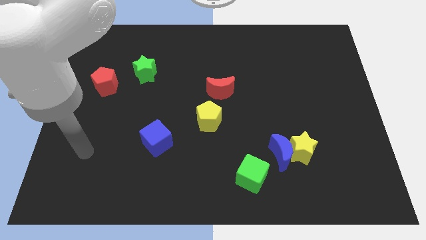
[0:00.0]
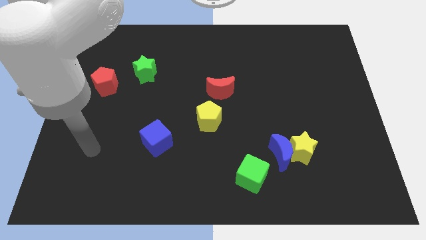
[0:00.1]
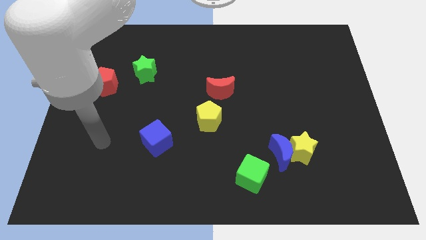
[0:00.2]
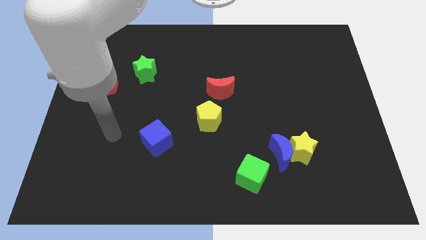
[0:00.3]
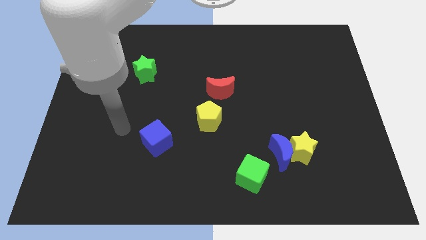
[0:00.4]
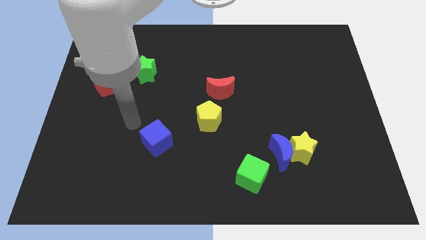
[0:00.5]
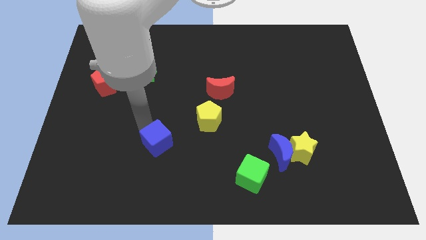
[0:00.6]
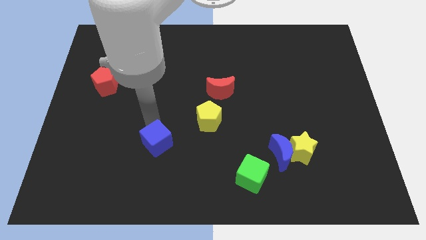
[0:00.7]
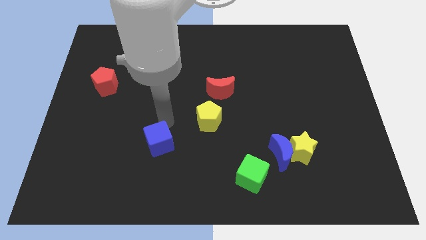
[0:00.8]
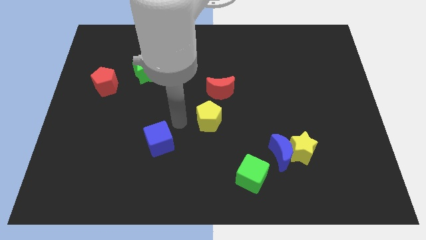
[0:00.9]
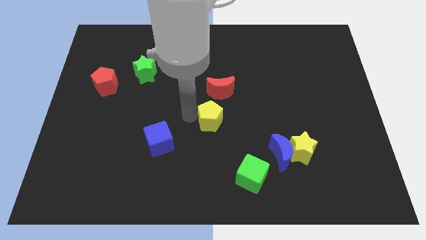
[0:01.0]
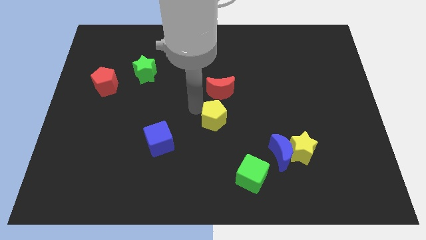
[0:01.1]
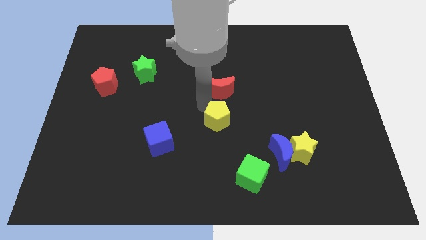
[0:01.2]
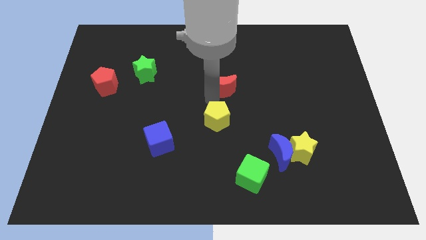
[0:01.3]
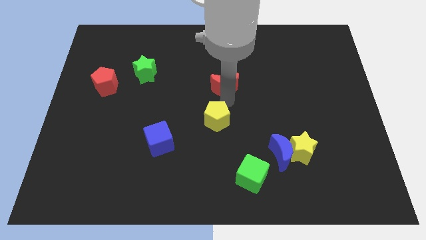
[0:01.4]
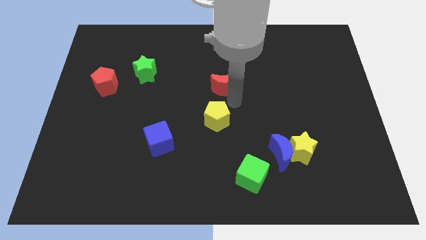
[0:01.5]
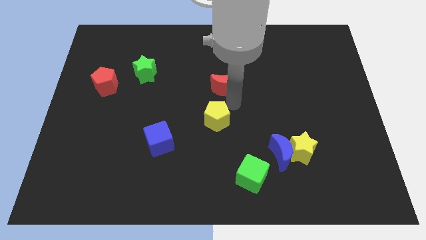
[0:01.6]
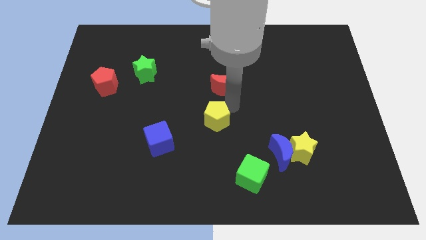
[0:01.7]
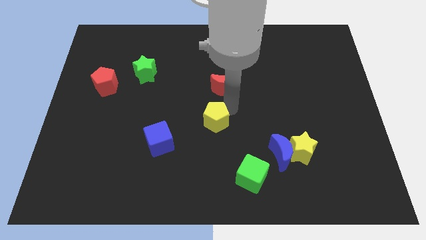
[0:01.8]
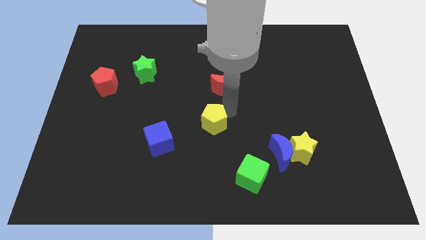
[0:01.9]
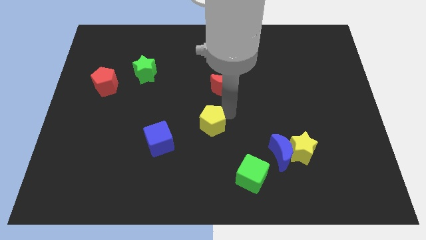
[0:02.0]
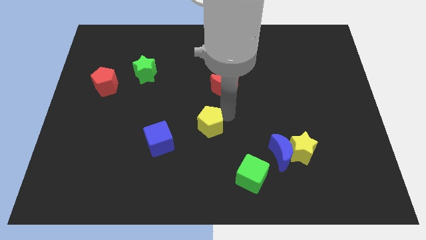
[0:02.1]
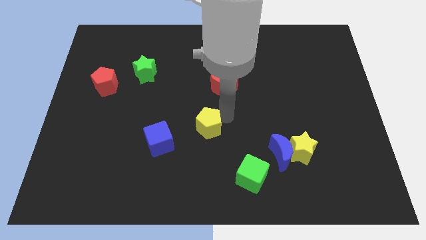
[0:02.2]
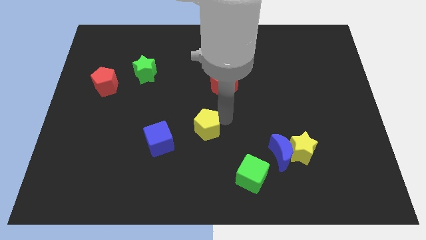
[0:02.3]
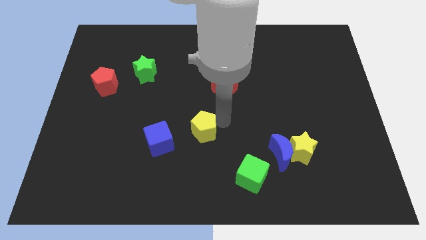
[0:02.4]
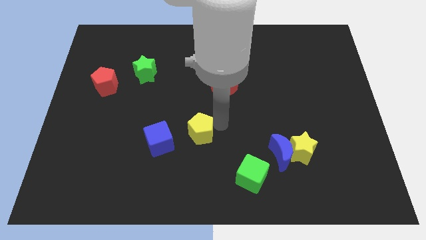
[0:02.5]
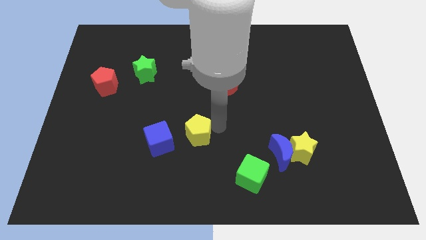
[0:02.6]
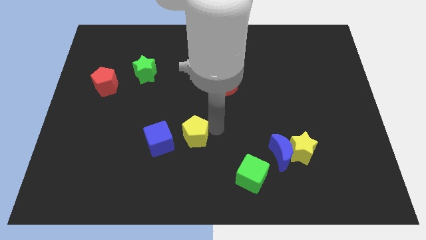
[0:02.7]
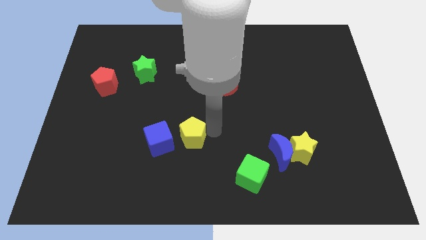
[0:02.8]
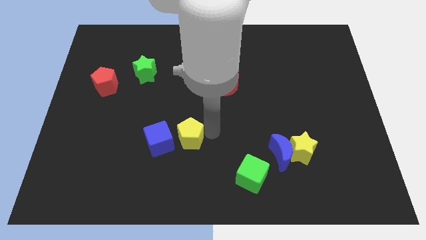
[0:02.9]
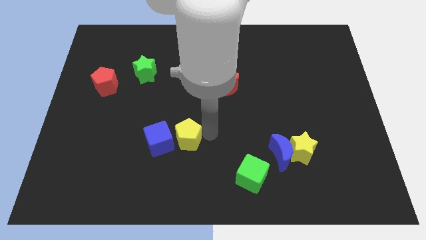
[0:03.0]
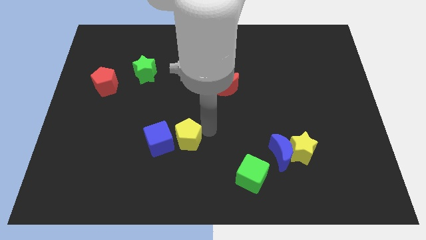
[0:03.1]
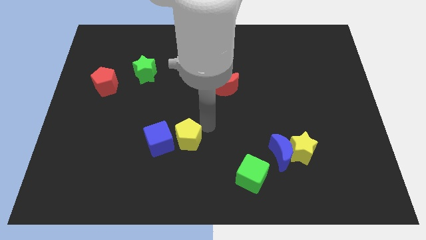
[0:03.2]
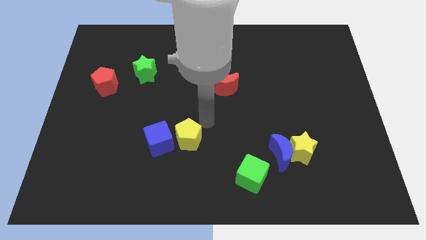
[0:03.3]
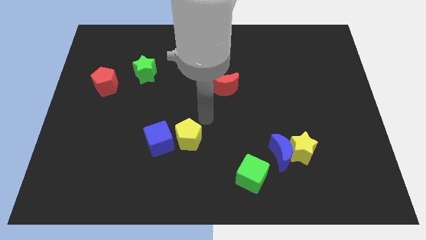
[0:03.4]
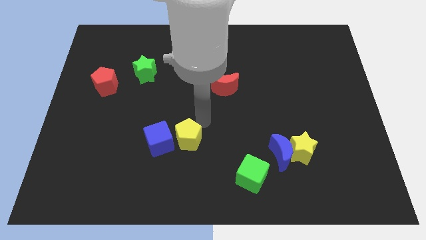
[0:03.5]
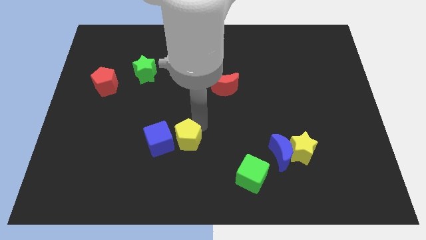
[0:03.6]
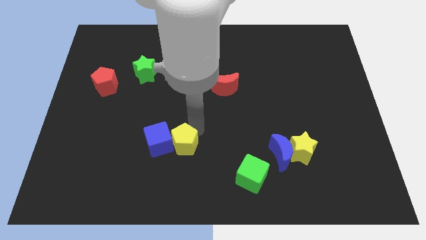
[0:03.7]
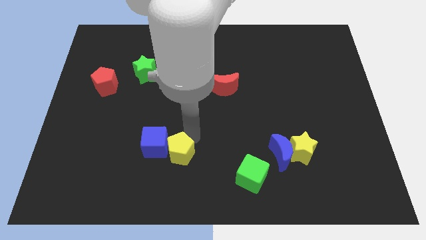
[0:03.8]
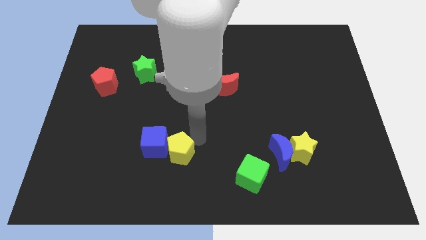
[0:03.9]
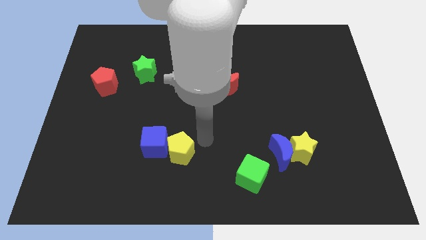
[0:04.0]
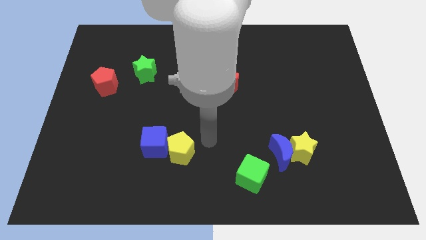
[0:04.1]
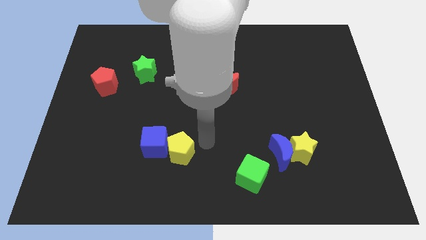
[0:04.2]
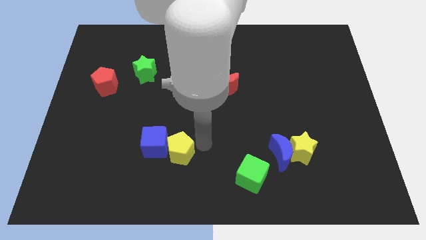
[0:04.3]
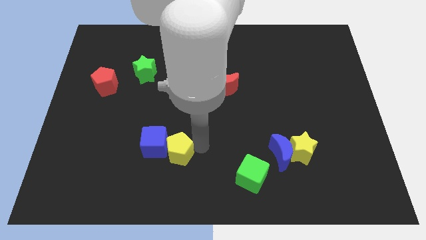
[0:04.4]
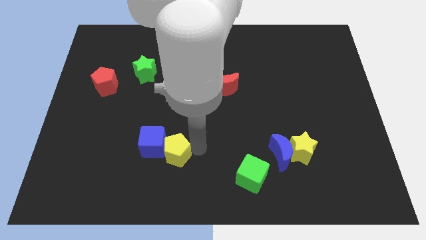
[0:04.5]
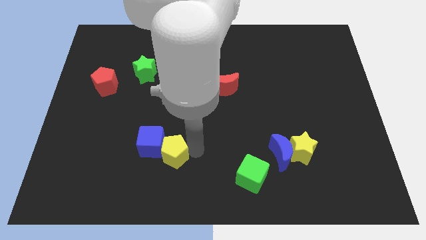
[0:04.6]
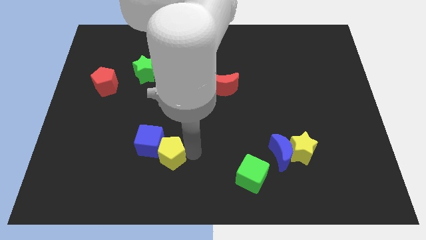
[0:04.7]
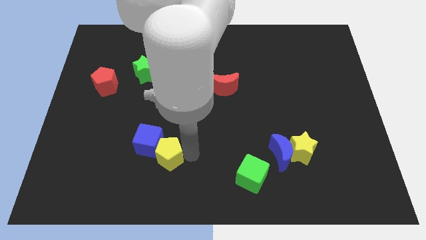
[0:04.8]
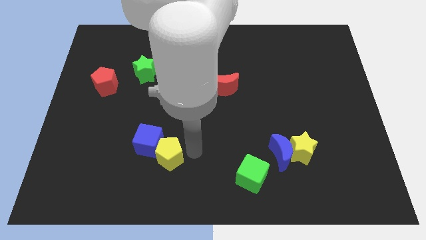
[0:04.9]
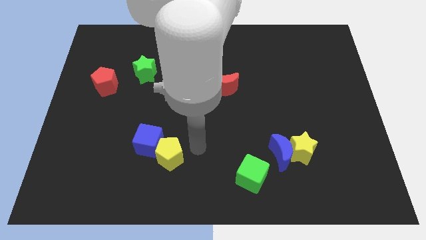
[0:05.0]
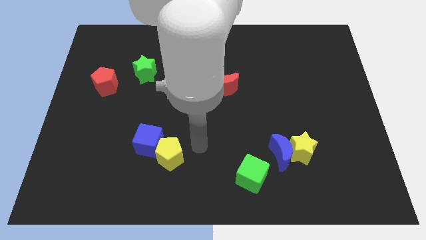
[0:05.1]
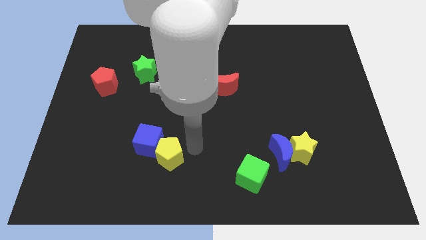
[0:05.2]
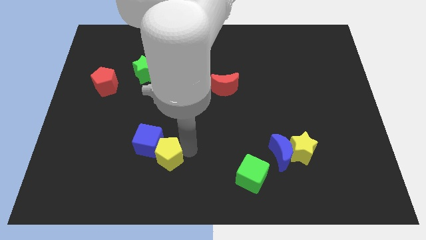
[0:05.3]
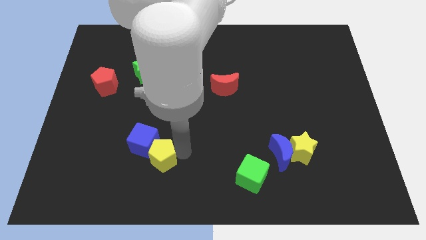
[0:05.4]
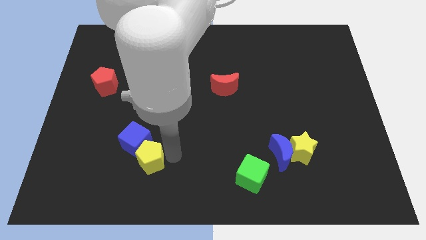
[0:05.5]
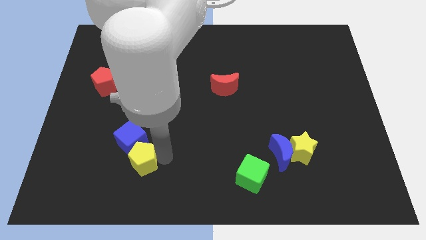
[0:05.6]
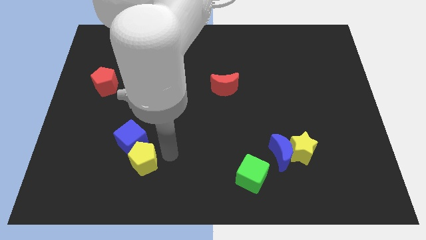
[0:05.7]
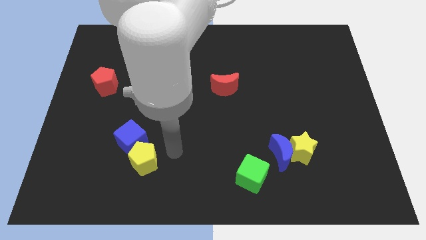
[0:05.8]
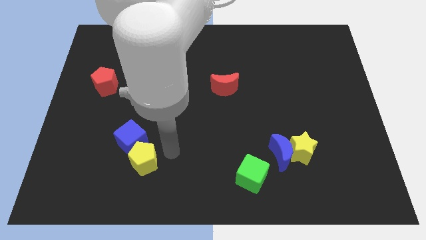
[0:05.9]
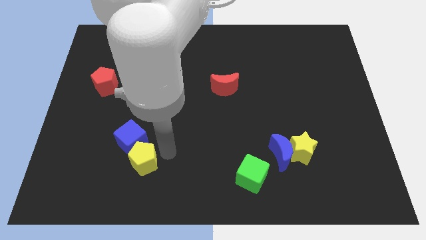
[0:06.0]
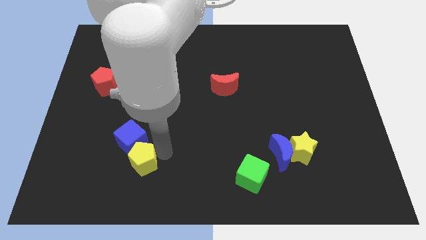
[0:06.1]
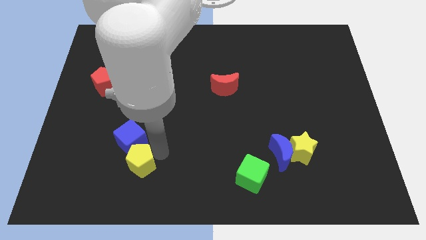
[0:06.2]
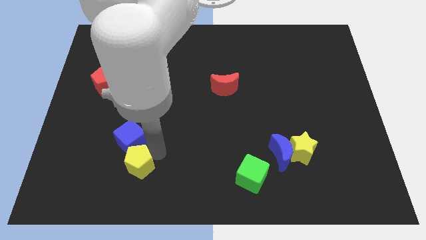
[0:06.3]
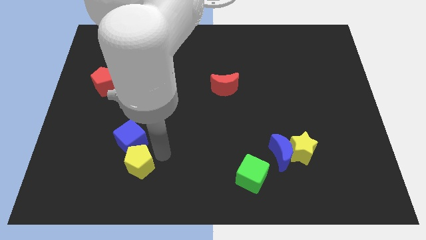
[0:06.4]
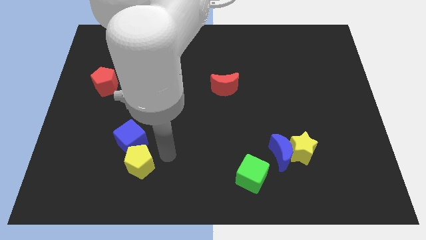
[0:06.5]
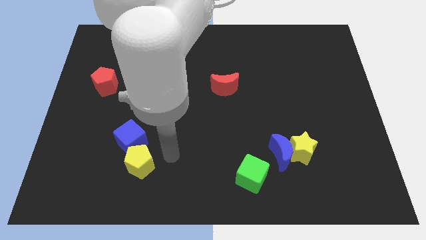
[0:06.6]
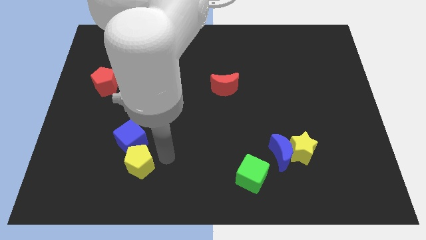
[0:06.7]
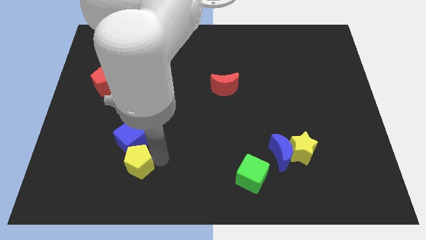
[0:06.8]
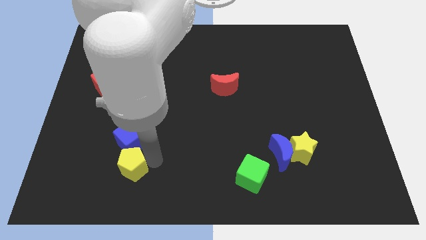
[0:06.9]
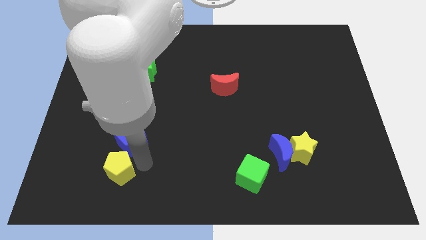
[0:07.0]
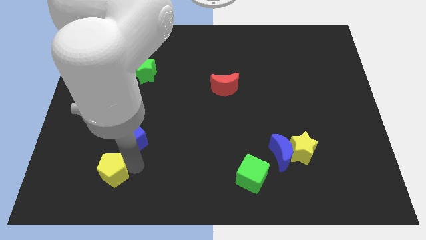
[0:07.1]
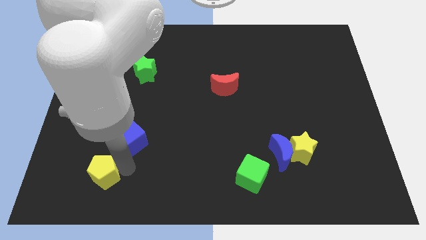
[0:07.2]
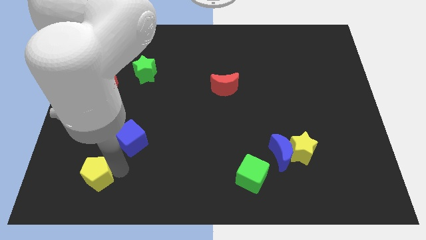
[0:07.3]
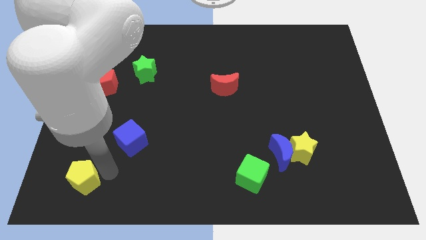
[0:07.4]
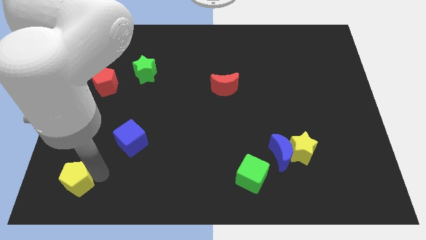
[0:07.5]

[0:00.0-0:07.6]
push the yellow pentagon to the lower left corner
